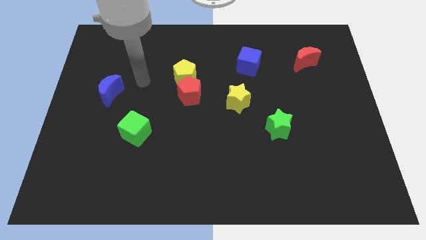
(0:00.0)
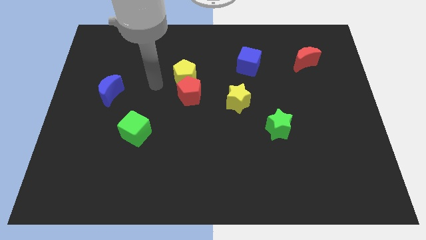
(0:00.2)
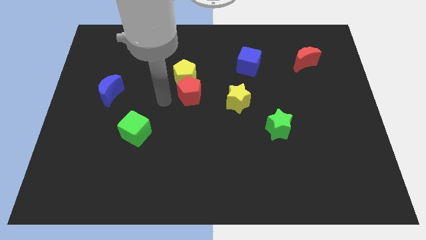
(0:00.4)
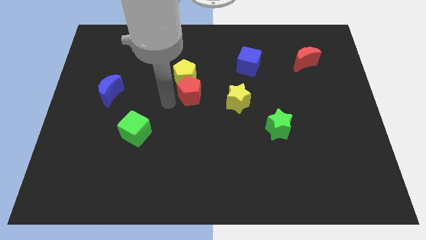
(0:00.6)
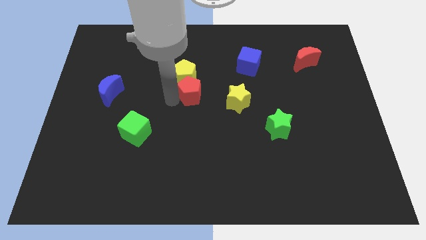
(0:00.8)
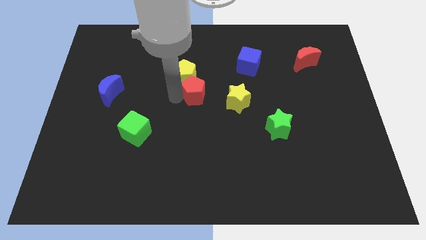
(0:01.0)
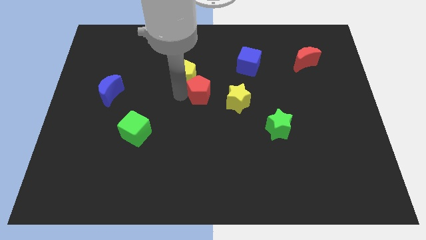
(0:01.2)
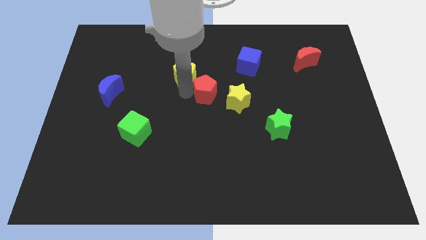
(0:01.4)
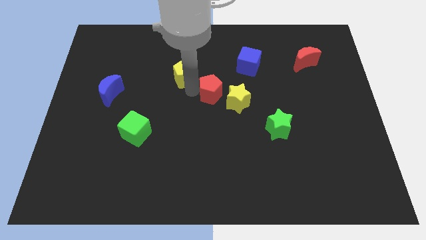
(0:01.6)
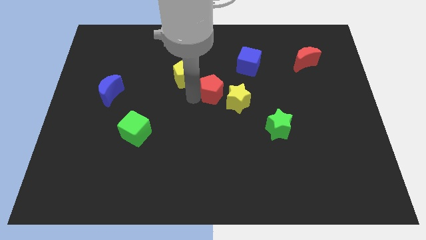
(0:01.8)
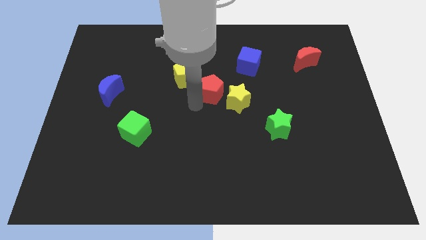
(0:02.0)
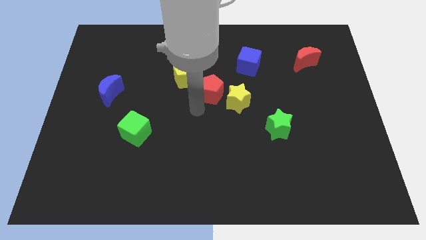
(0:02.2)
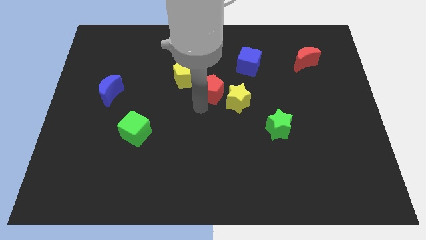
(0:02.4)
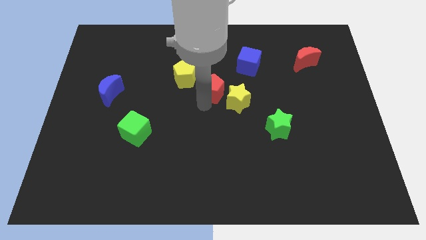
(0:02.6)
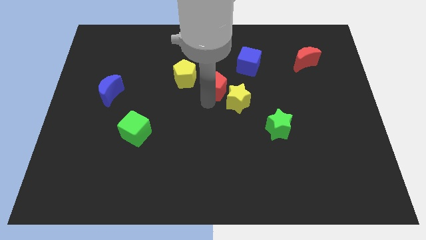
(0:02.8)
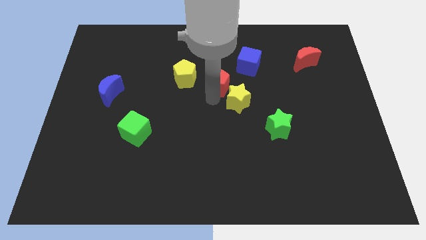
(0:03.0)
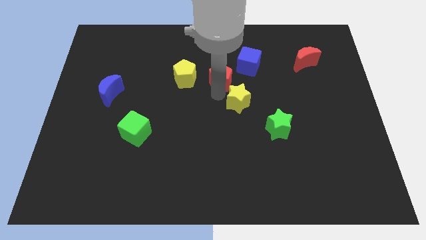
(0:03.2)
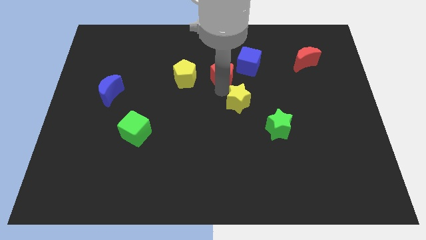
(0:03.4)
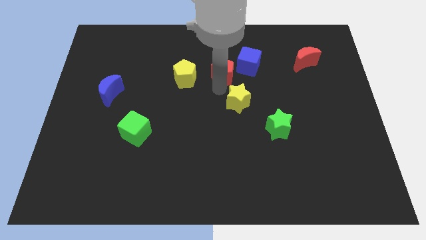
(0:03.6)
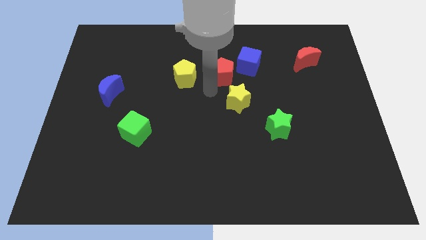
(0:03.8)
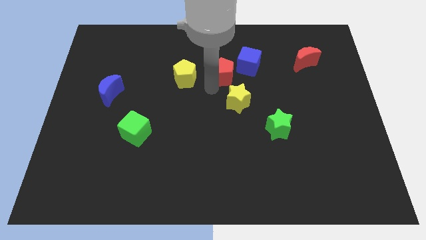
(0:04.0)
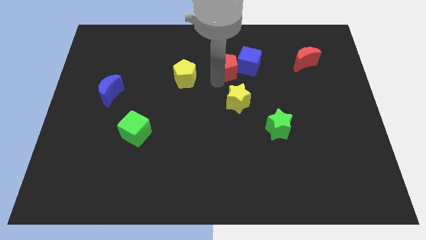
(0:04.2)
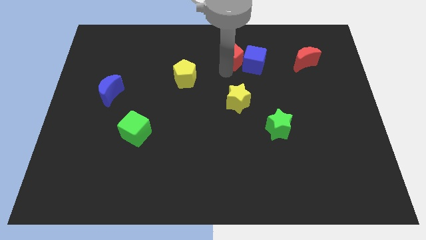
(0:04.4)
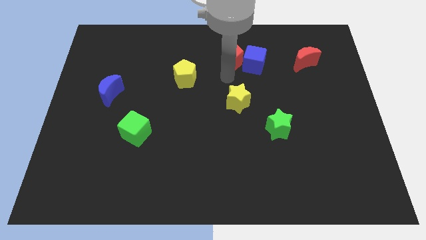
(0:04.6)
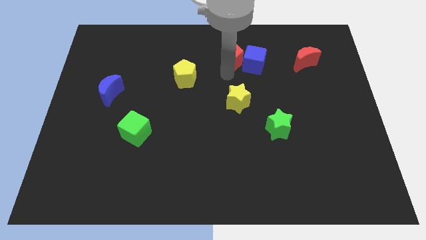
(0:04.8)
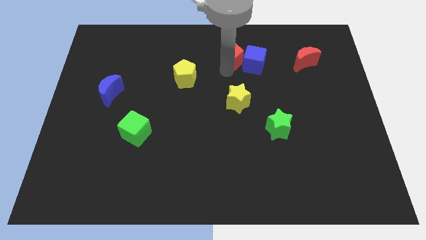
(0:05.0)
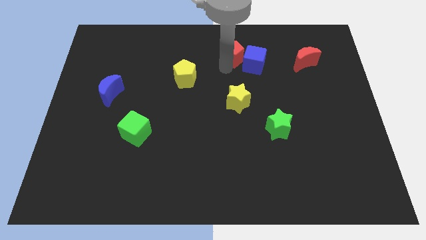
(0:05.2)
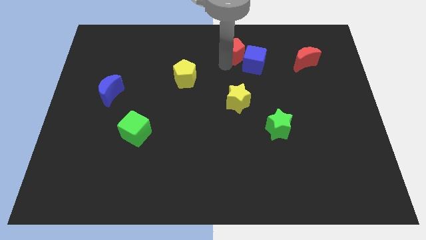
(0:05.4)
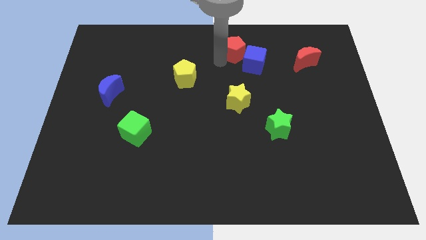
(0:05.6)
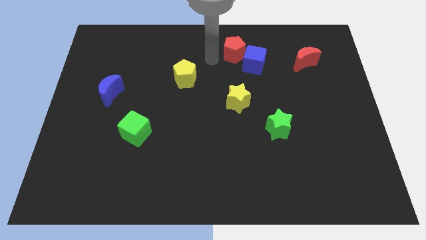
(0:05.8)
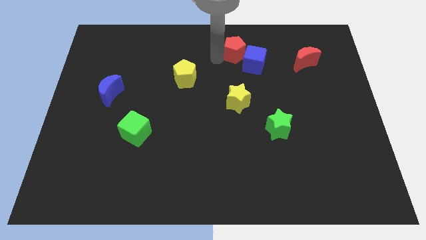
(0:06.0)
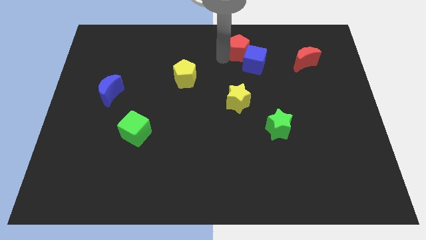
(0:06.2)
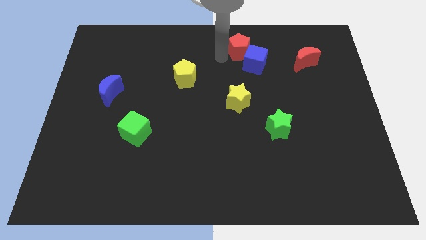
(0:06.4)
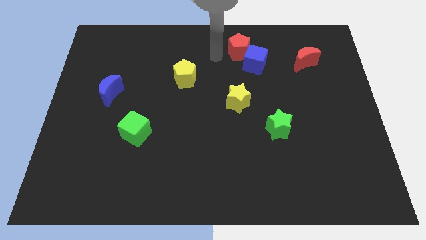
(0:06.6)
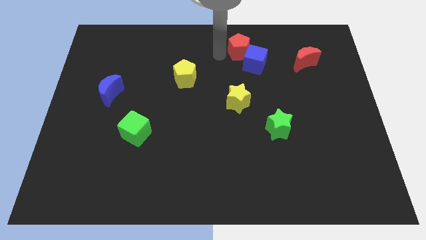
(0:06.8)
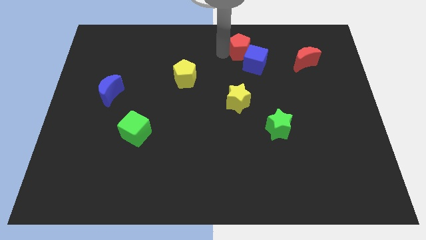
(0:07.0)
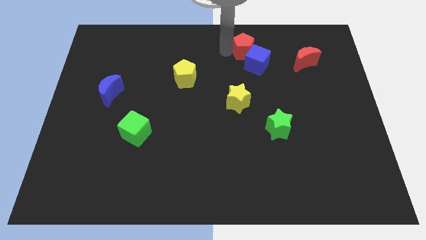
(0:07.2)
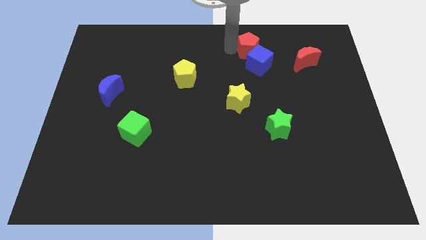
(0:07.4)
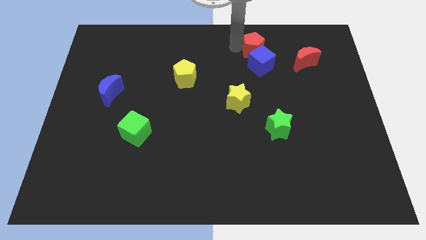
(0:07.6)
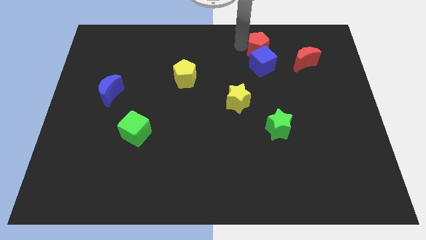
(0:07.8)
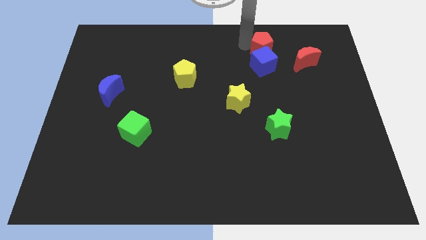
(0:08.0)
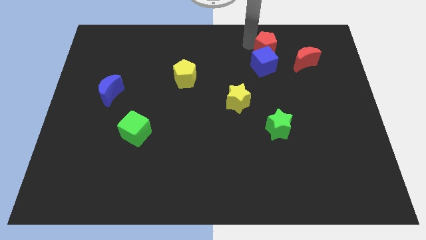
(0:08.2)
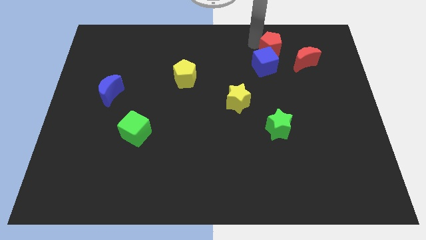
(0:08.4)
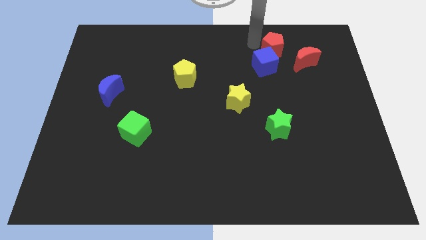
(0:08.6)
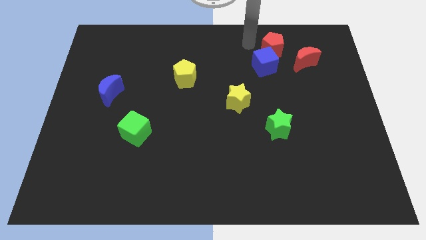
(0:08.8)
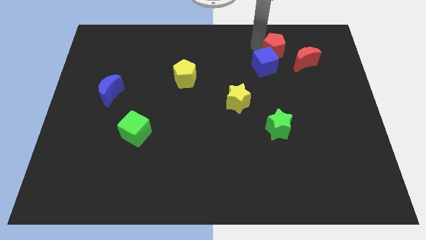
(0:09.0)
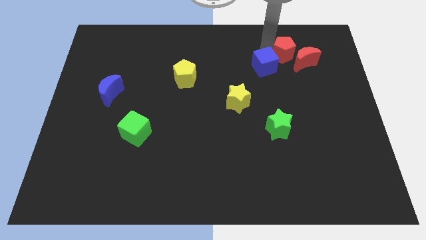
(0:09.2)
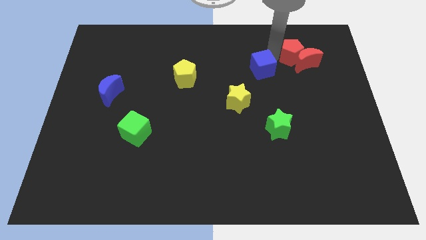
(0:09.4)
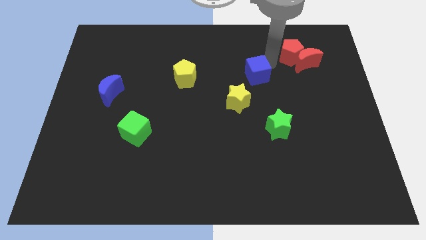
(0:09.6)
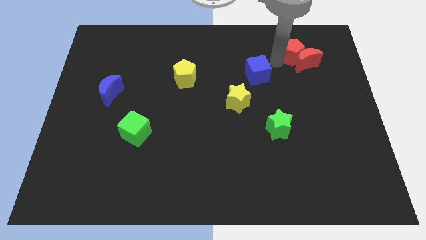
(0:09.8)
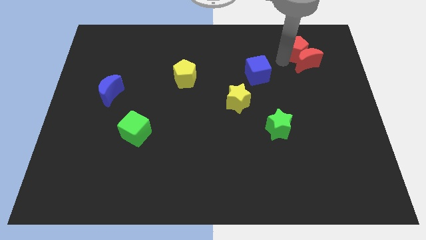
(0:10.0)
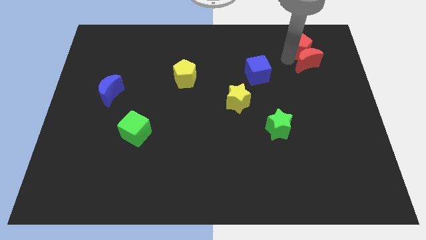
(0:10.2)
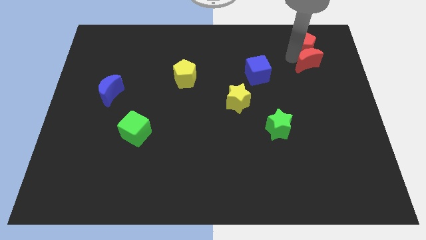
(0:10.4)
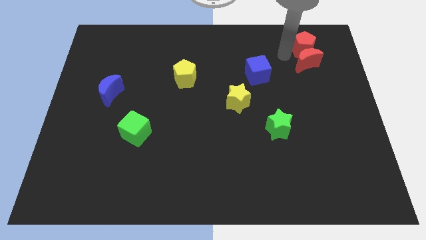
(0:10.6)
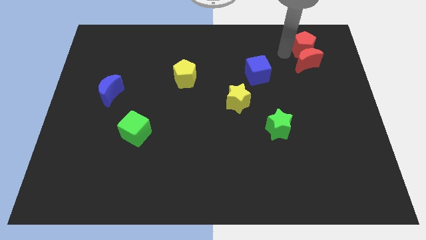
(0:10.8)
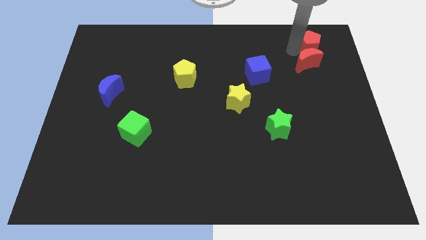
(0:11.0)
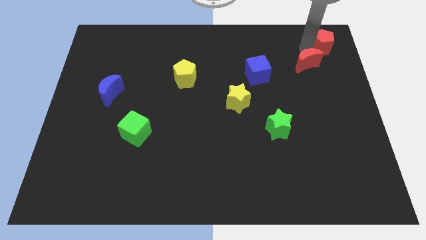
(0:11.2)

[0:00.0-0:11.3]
slide the red pentagon to the top right corner

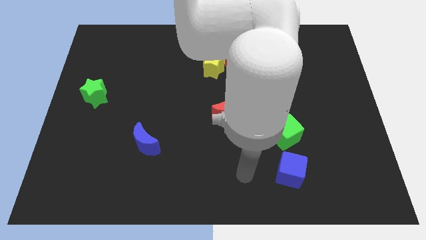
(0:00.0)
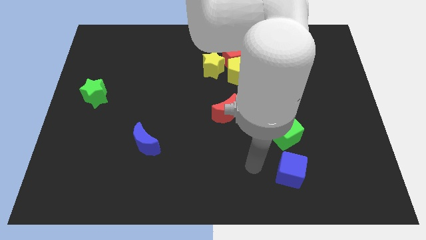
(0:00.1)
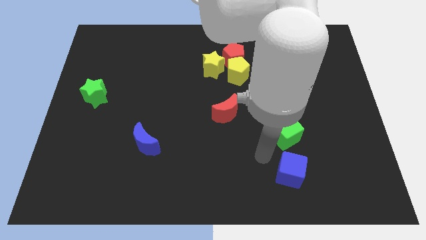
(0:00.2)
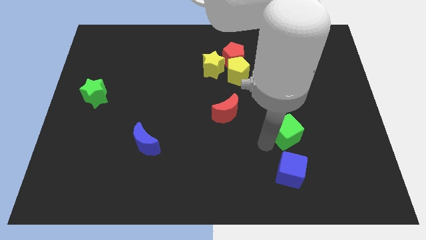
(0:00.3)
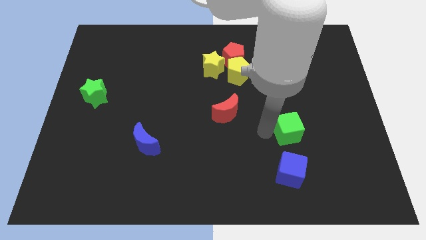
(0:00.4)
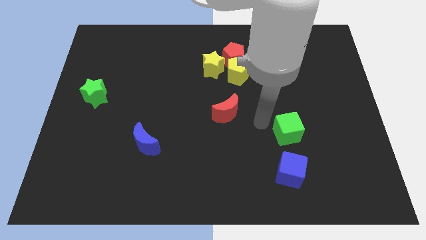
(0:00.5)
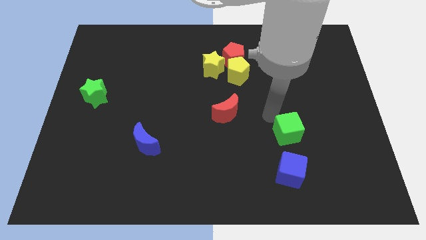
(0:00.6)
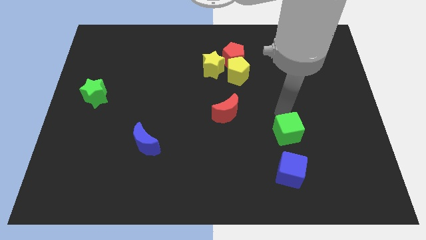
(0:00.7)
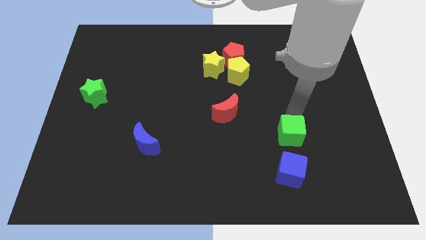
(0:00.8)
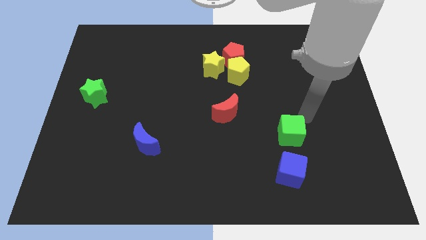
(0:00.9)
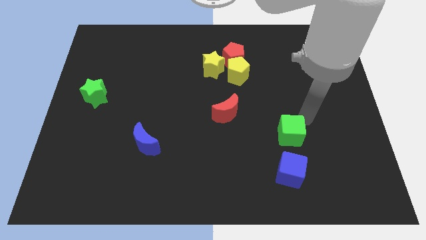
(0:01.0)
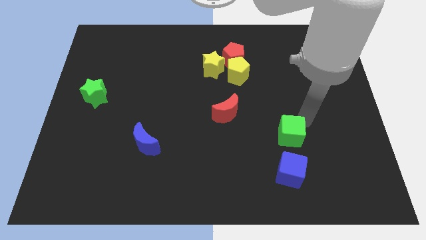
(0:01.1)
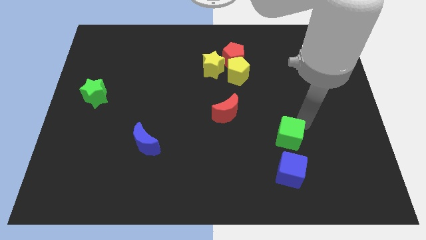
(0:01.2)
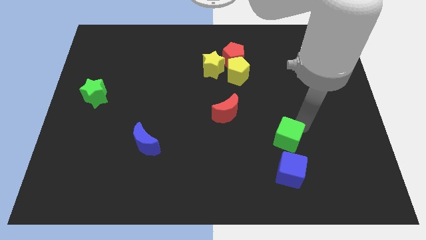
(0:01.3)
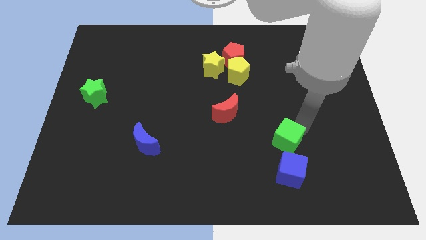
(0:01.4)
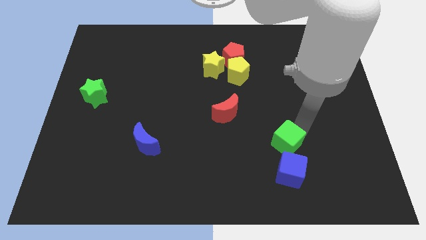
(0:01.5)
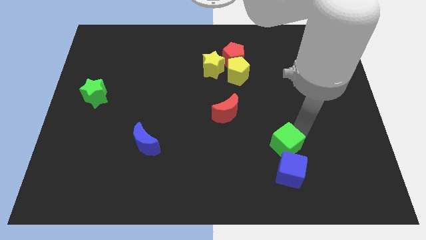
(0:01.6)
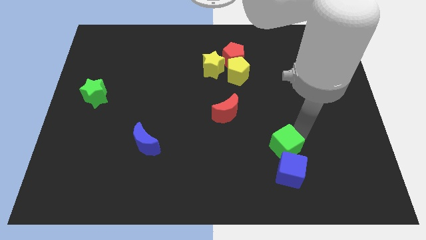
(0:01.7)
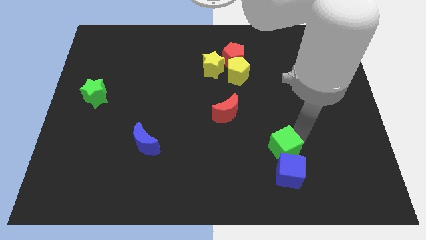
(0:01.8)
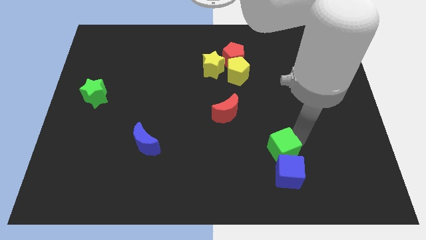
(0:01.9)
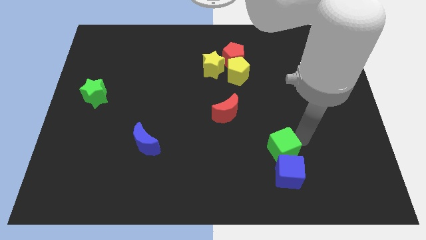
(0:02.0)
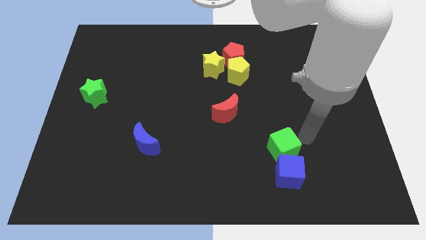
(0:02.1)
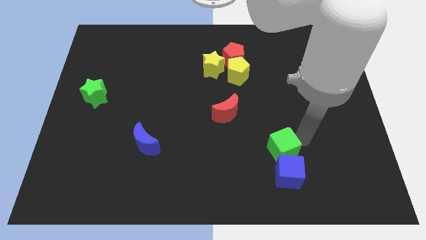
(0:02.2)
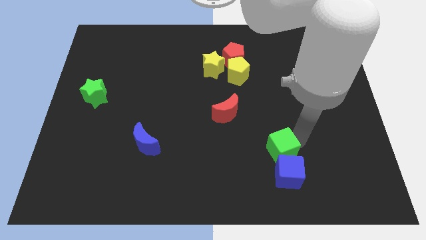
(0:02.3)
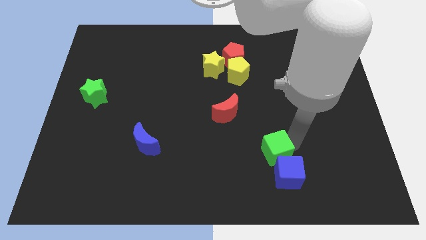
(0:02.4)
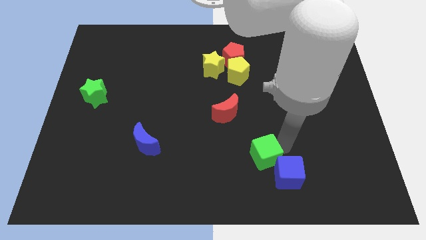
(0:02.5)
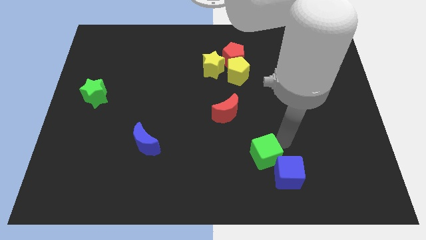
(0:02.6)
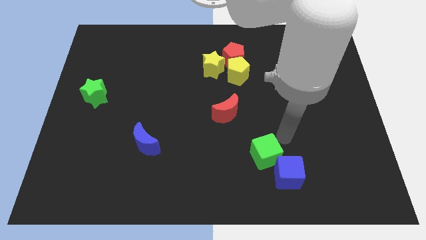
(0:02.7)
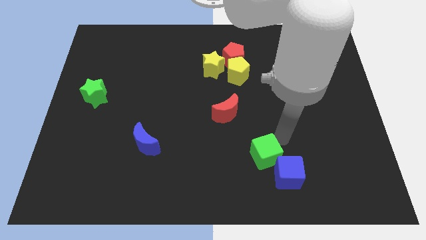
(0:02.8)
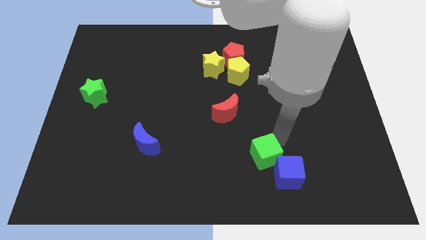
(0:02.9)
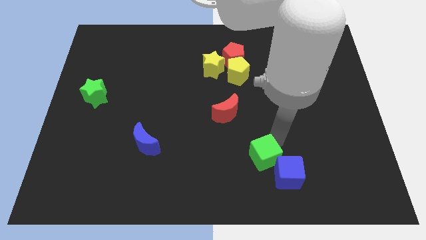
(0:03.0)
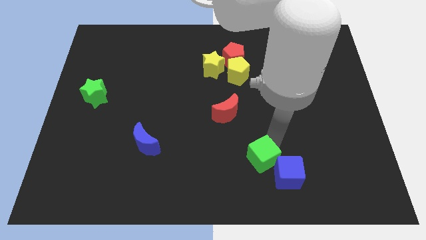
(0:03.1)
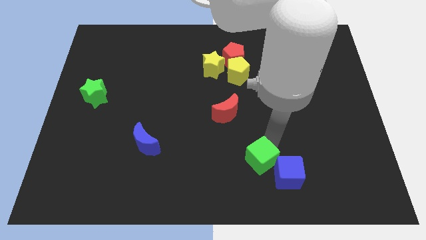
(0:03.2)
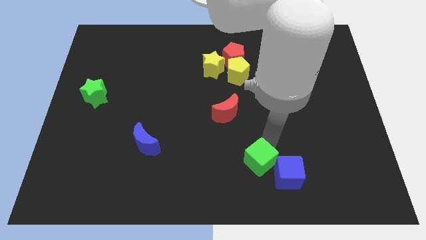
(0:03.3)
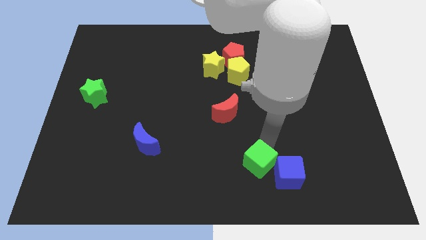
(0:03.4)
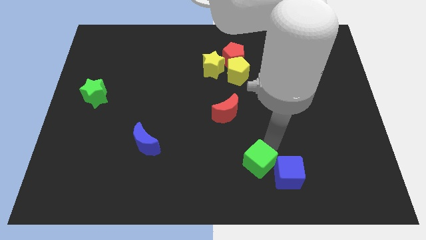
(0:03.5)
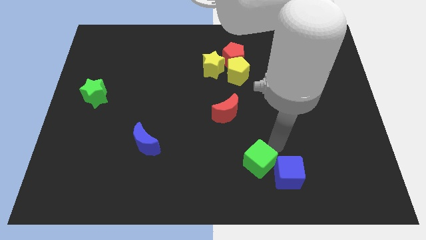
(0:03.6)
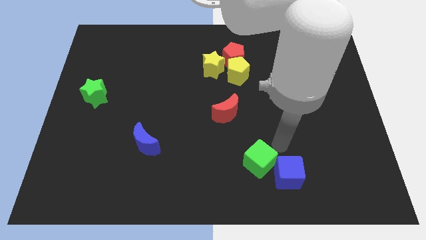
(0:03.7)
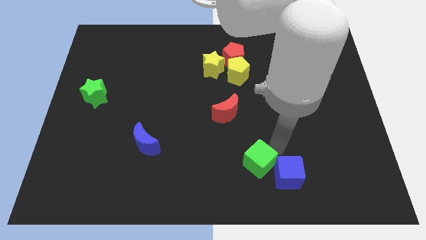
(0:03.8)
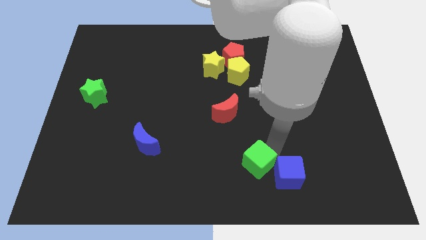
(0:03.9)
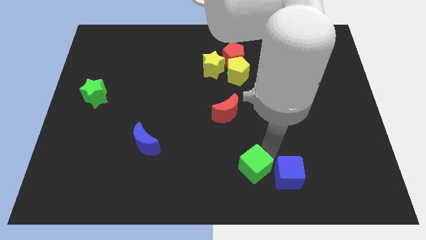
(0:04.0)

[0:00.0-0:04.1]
slide the green cube to the bottom
